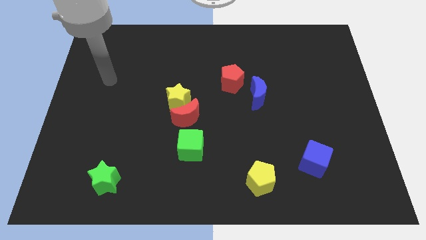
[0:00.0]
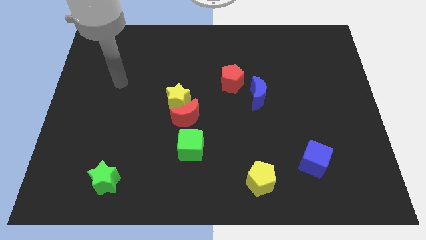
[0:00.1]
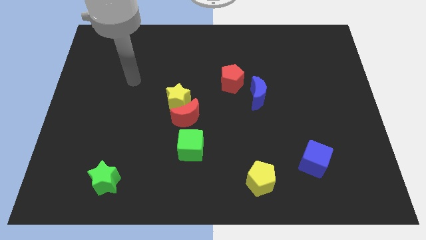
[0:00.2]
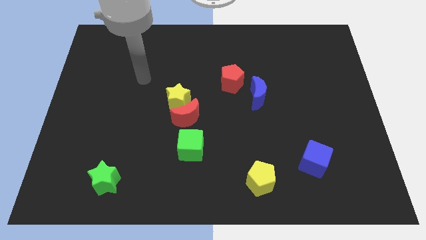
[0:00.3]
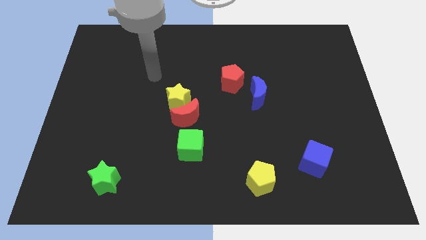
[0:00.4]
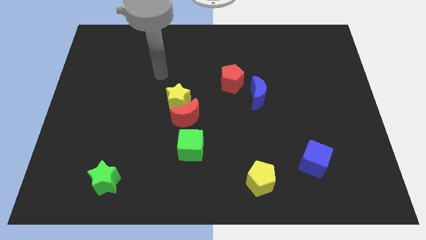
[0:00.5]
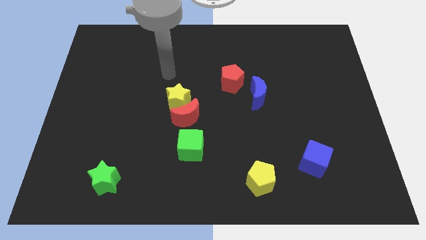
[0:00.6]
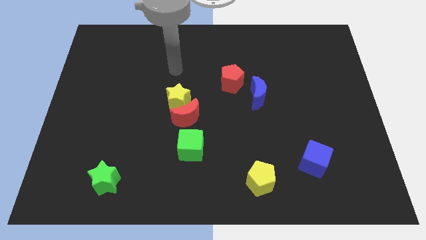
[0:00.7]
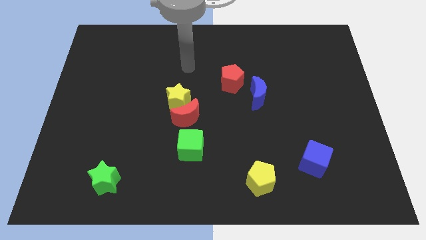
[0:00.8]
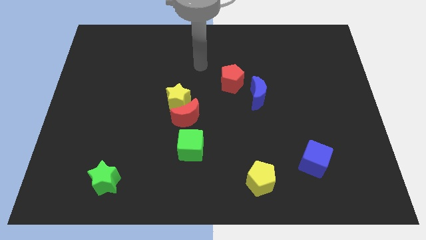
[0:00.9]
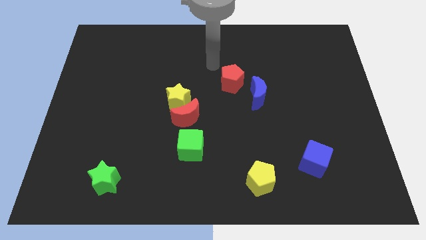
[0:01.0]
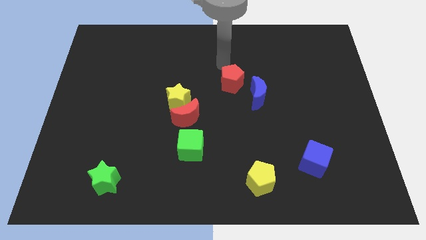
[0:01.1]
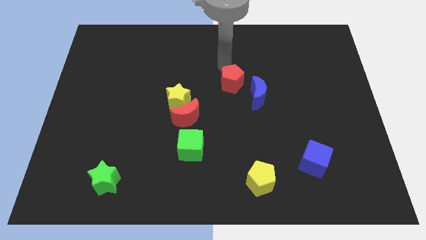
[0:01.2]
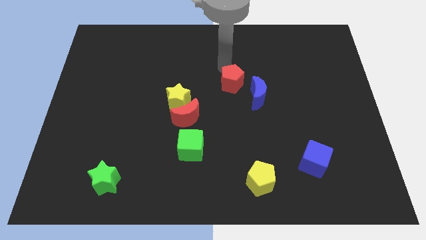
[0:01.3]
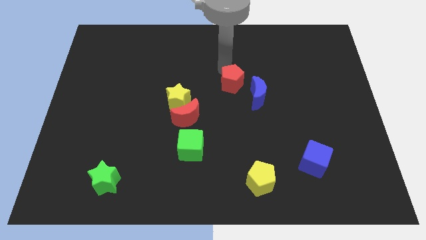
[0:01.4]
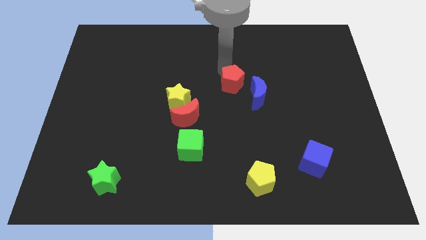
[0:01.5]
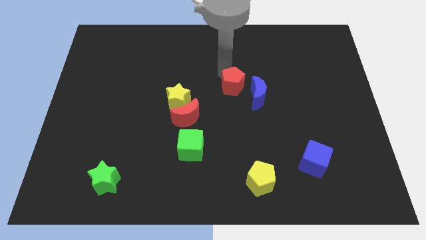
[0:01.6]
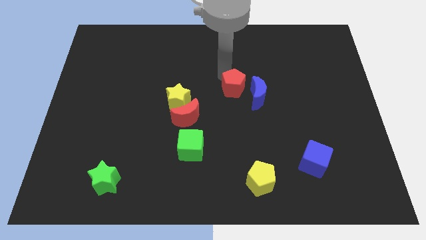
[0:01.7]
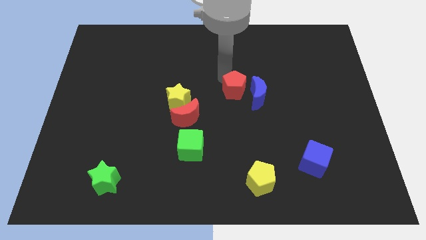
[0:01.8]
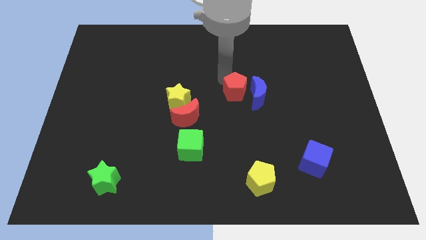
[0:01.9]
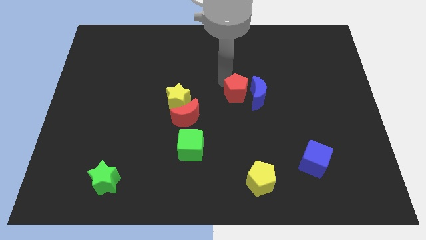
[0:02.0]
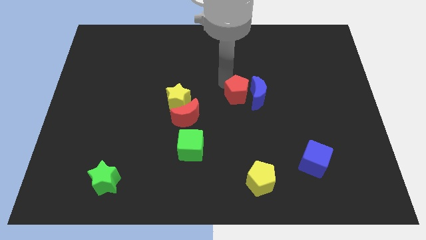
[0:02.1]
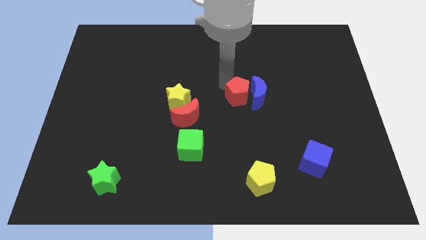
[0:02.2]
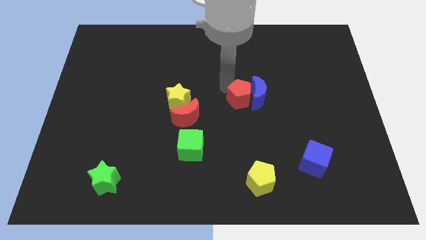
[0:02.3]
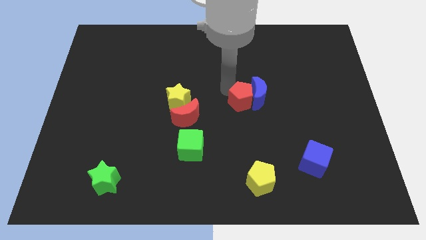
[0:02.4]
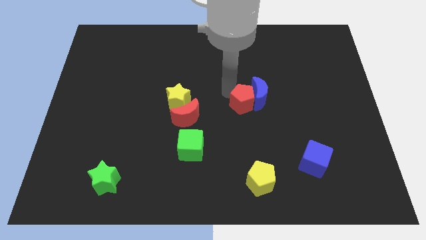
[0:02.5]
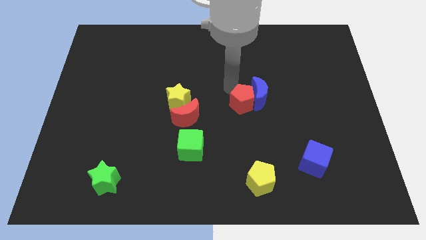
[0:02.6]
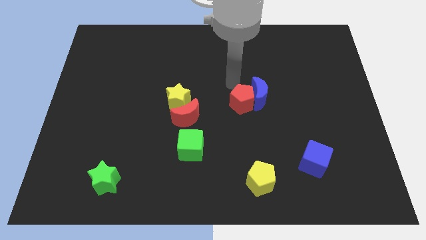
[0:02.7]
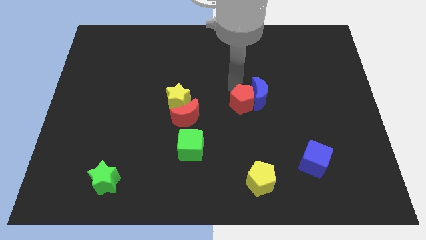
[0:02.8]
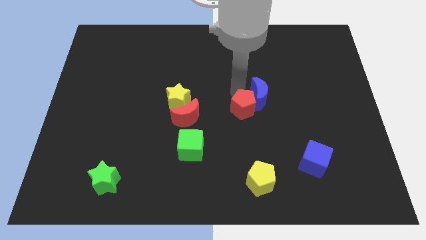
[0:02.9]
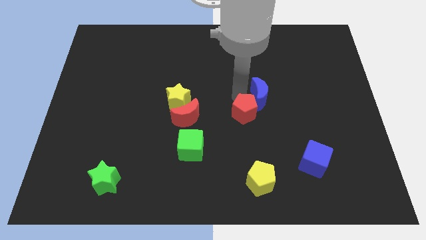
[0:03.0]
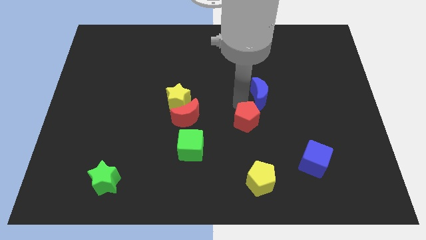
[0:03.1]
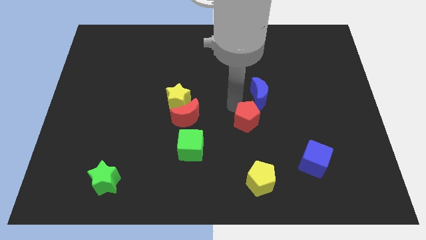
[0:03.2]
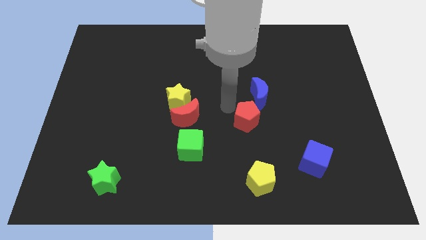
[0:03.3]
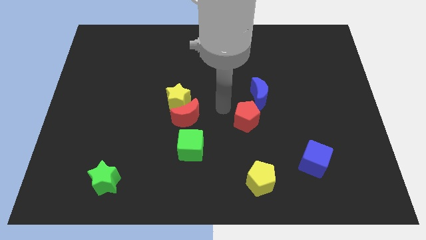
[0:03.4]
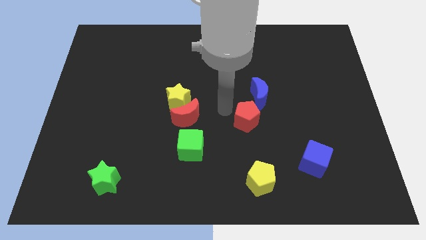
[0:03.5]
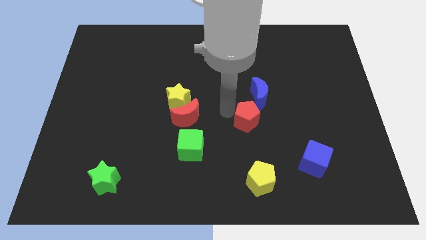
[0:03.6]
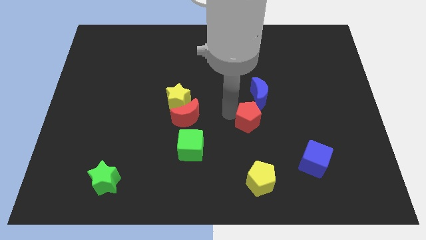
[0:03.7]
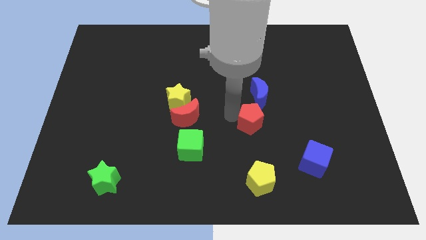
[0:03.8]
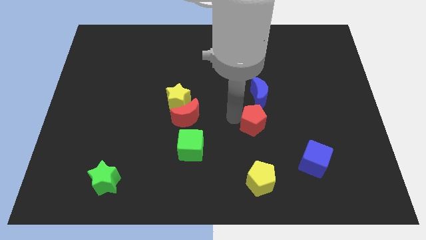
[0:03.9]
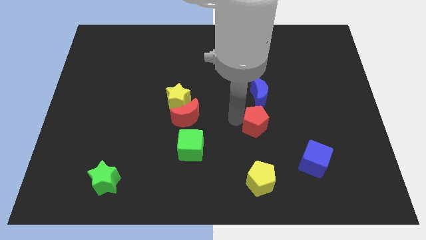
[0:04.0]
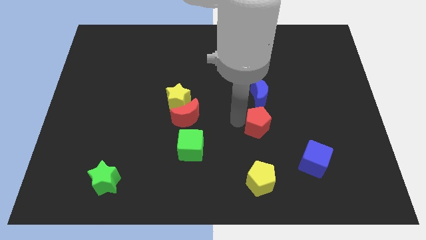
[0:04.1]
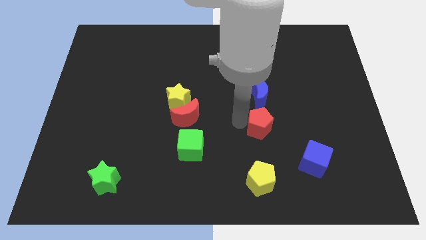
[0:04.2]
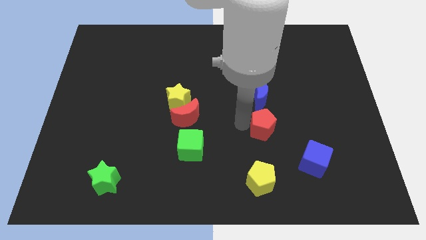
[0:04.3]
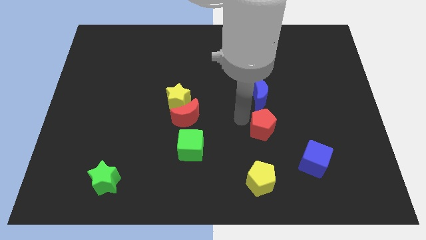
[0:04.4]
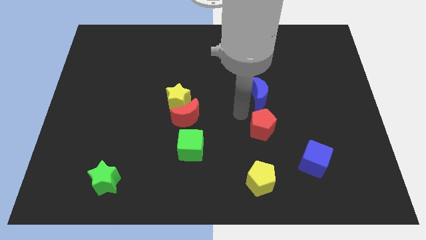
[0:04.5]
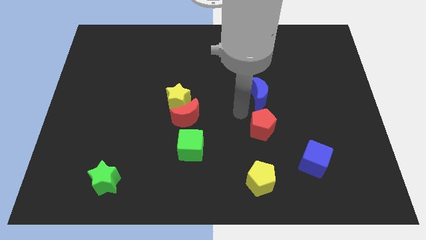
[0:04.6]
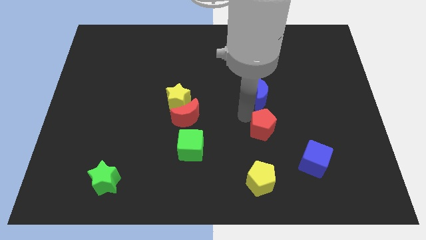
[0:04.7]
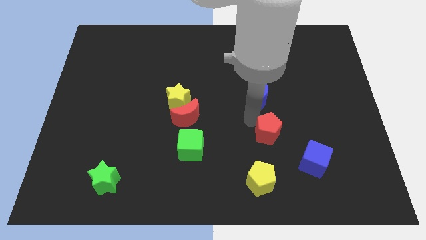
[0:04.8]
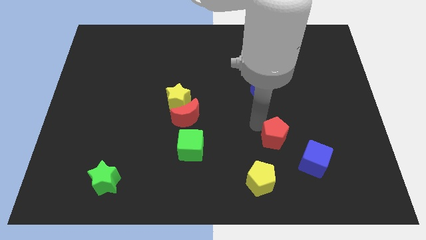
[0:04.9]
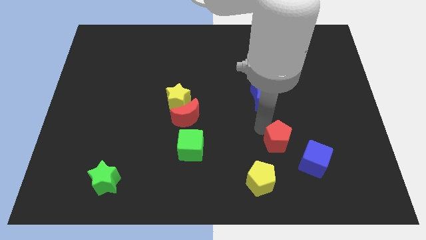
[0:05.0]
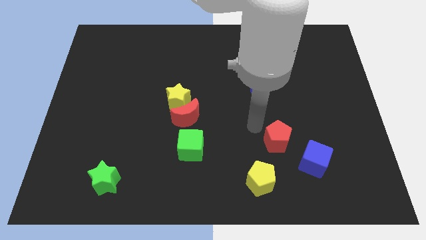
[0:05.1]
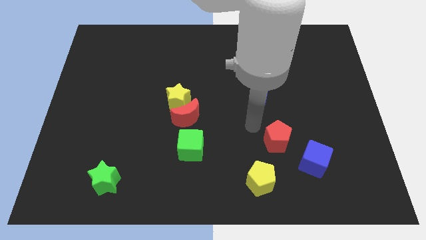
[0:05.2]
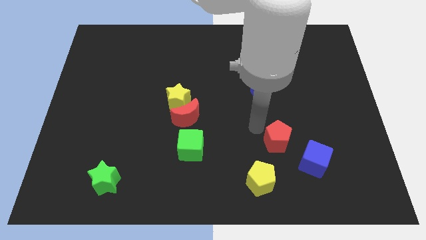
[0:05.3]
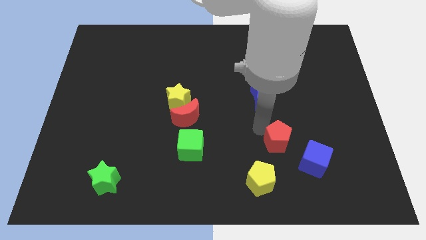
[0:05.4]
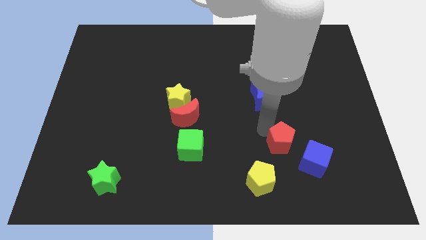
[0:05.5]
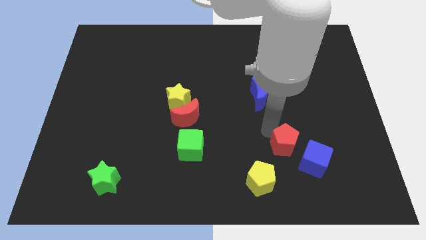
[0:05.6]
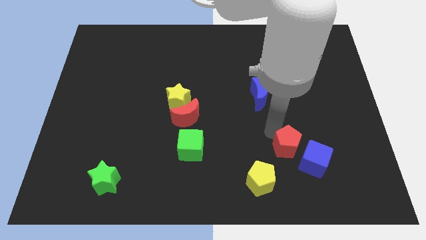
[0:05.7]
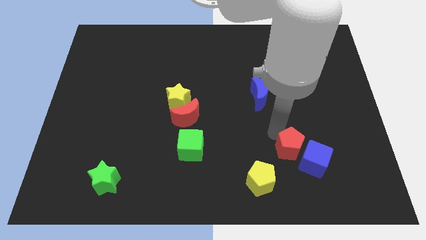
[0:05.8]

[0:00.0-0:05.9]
slide the red pentagon next to the blue cube

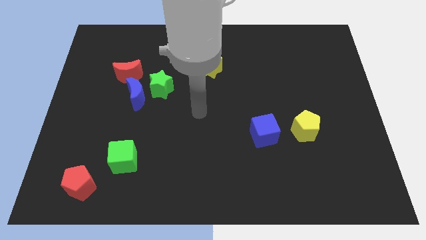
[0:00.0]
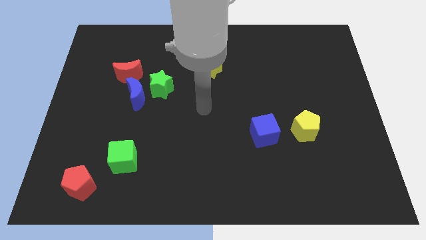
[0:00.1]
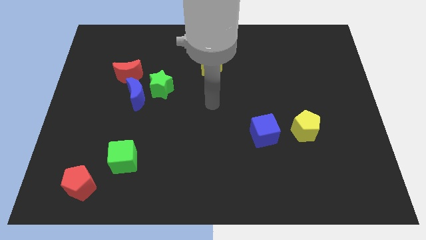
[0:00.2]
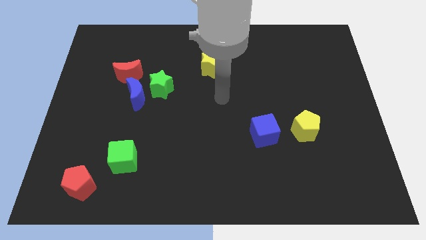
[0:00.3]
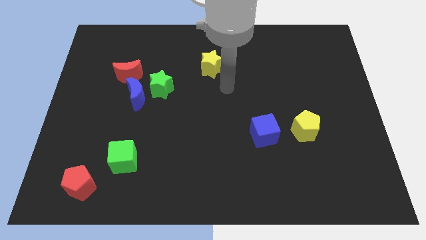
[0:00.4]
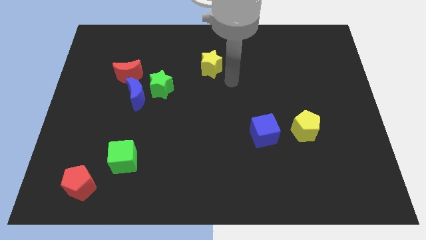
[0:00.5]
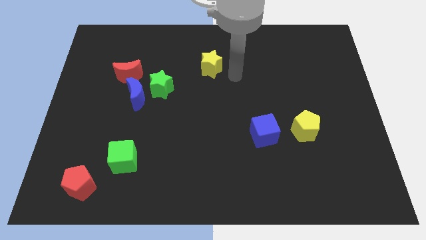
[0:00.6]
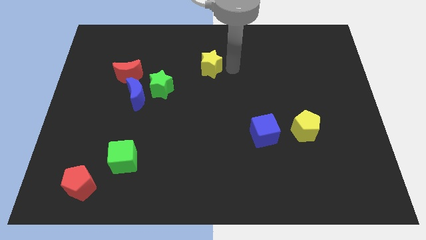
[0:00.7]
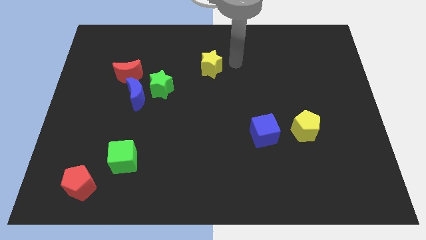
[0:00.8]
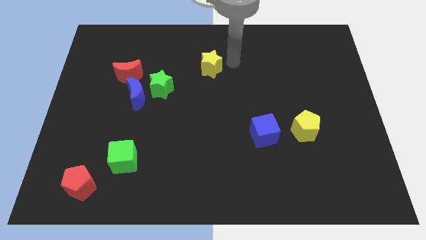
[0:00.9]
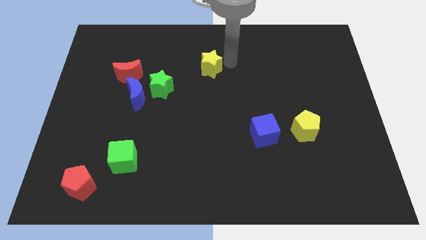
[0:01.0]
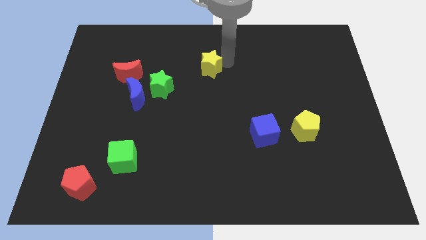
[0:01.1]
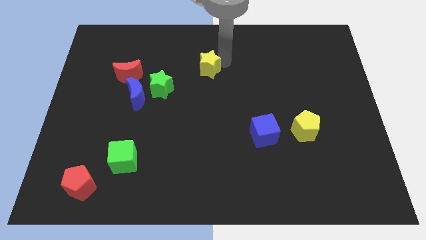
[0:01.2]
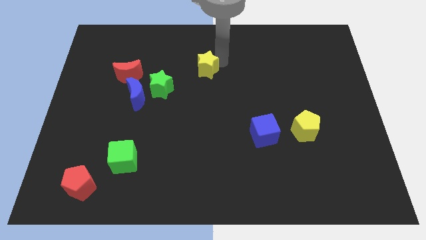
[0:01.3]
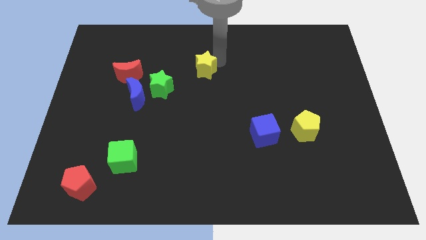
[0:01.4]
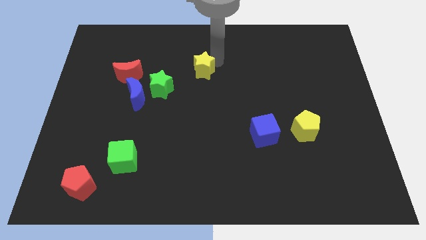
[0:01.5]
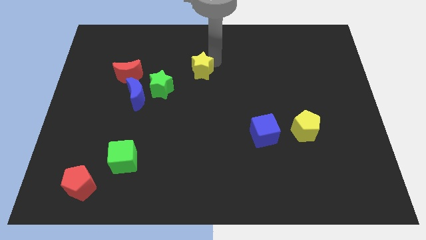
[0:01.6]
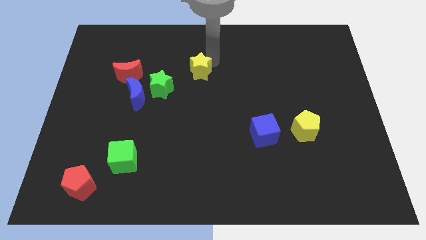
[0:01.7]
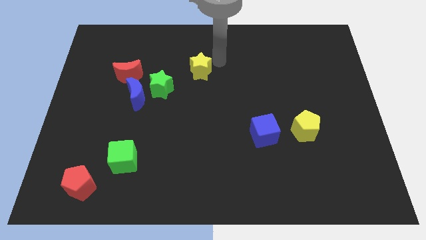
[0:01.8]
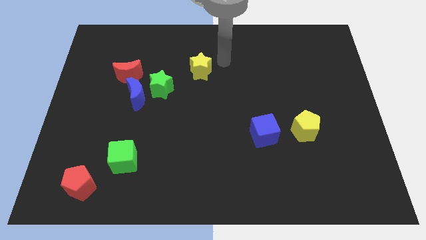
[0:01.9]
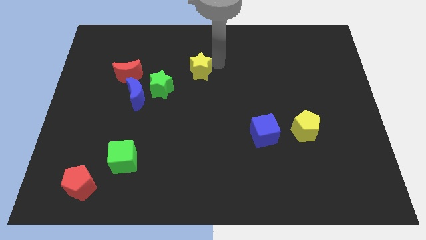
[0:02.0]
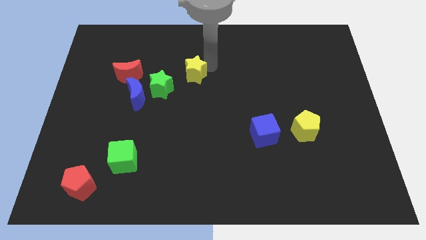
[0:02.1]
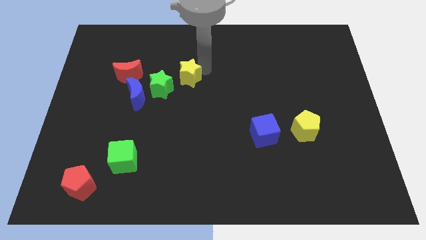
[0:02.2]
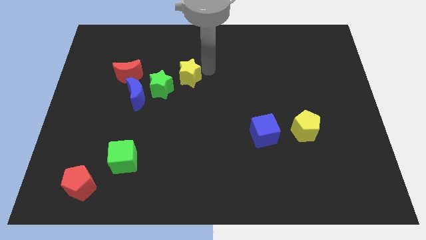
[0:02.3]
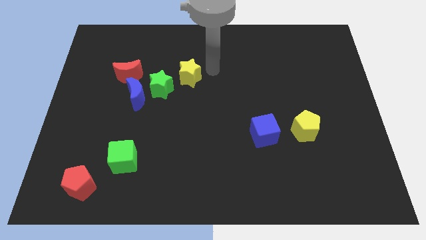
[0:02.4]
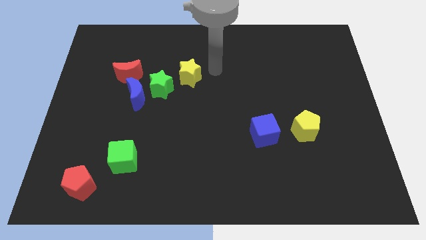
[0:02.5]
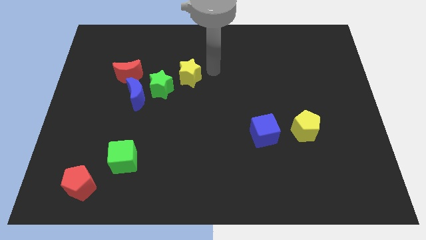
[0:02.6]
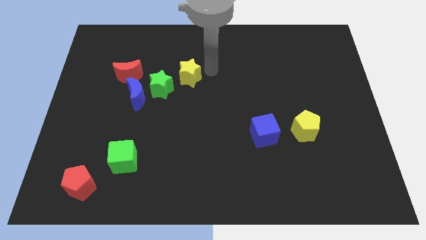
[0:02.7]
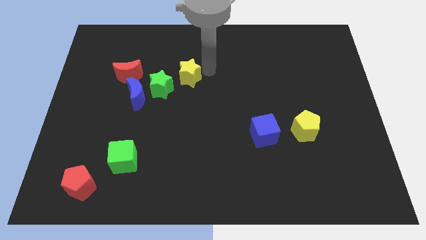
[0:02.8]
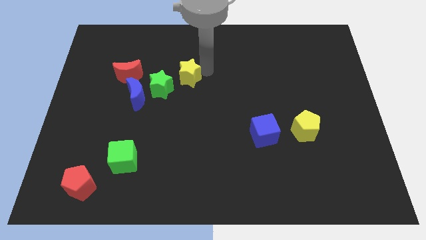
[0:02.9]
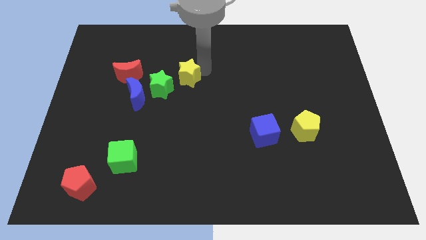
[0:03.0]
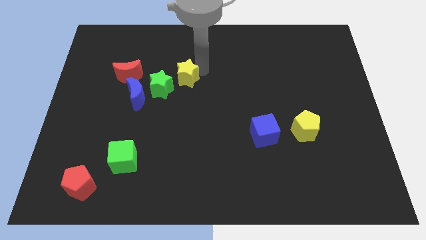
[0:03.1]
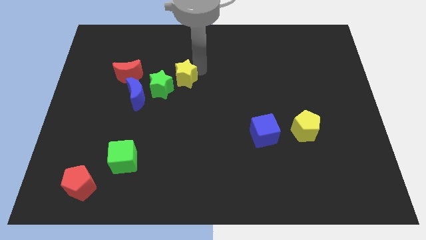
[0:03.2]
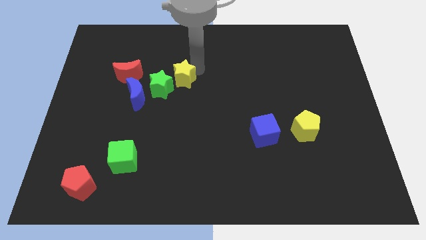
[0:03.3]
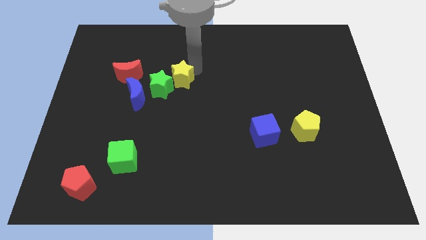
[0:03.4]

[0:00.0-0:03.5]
push the yellow star to the green star
